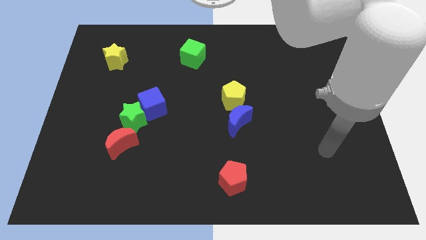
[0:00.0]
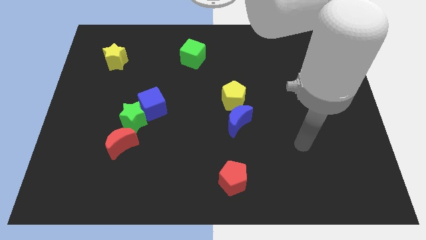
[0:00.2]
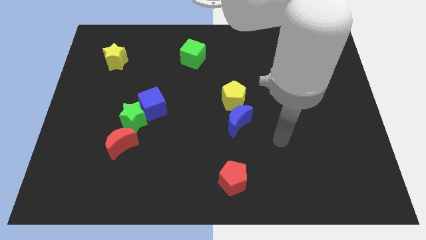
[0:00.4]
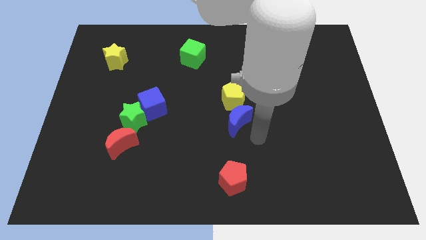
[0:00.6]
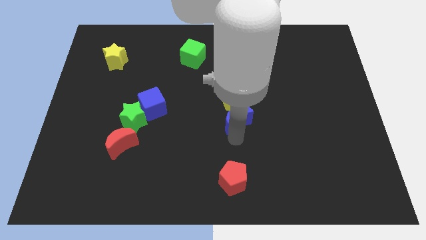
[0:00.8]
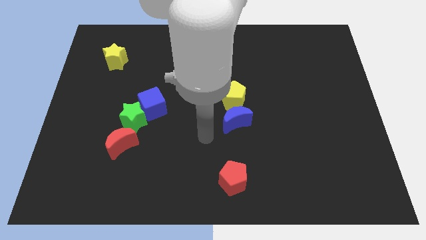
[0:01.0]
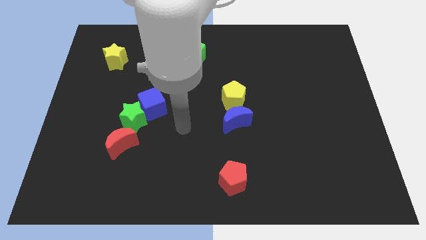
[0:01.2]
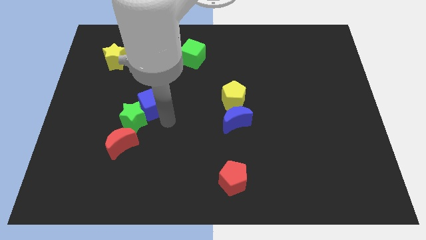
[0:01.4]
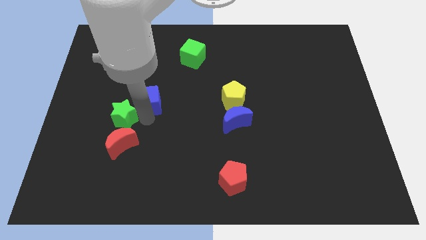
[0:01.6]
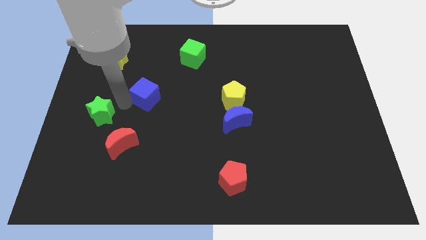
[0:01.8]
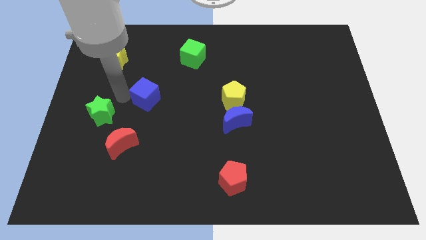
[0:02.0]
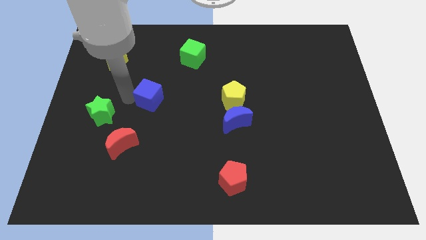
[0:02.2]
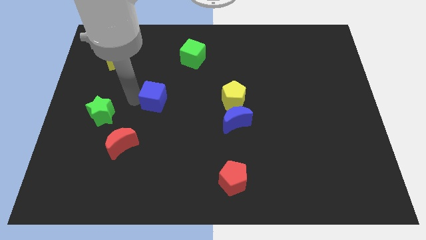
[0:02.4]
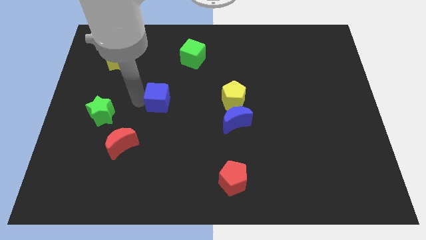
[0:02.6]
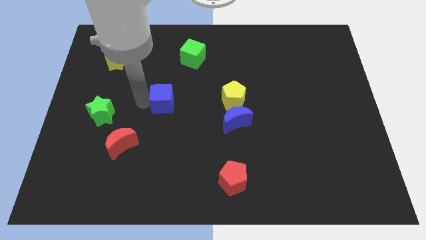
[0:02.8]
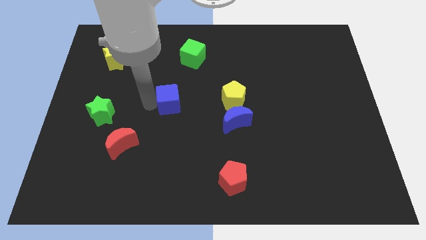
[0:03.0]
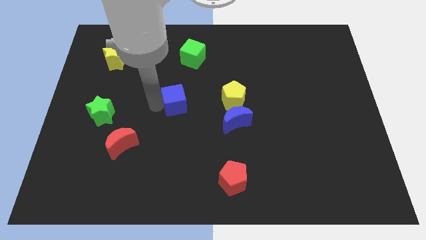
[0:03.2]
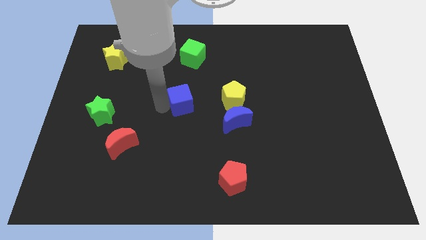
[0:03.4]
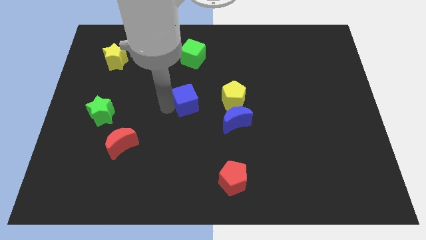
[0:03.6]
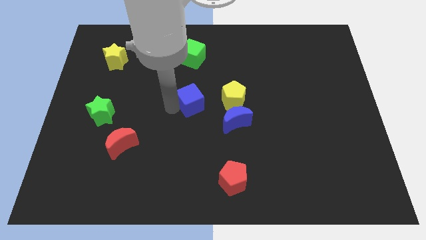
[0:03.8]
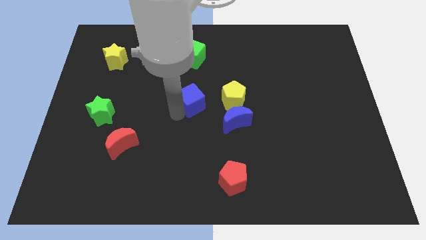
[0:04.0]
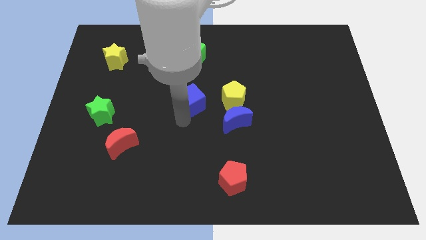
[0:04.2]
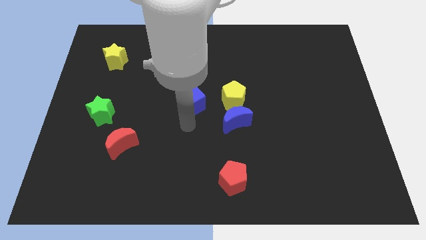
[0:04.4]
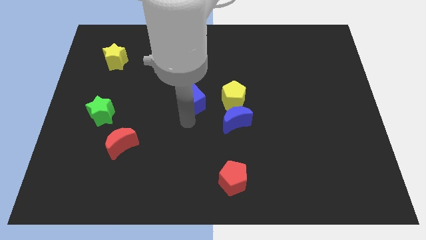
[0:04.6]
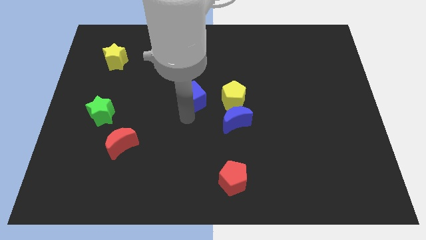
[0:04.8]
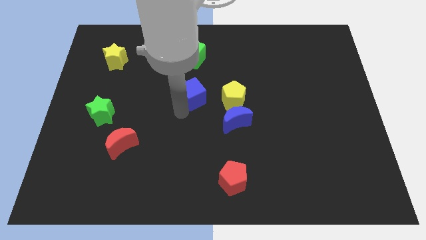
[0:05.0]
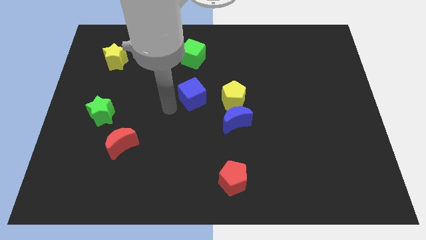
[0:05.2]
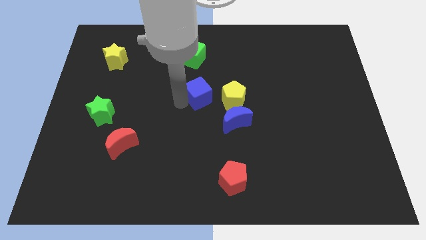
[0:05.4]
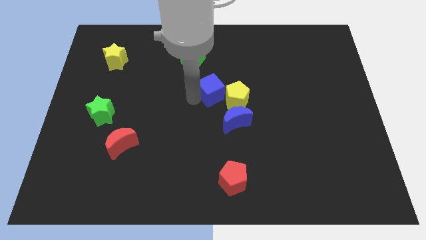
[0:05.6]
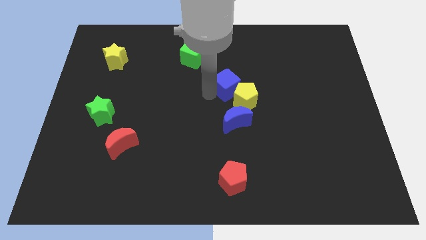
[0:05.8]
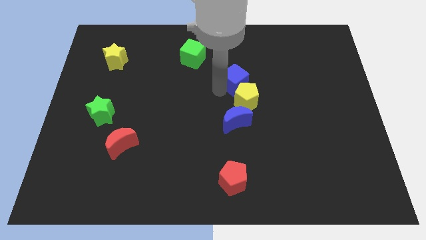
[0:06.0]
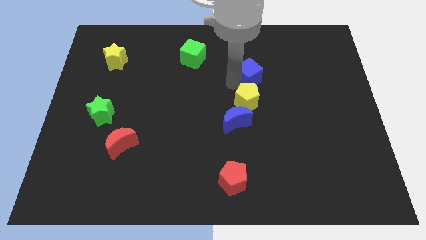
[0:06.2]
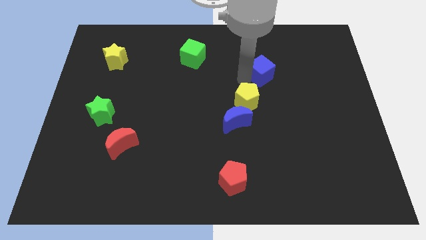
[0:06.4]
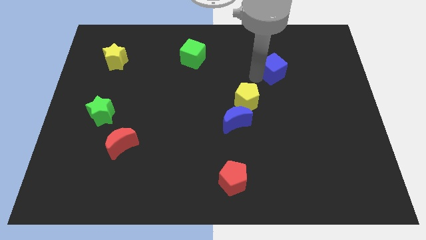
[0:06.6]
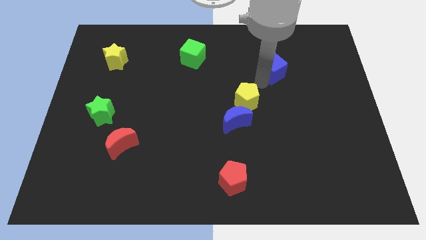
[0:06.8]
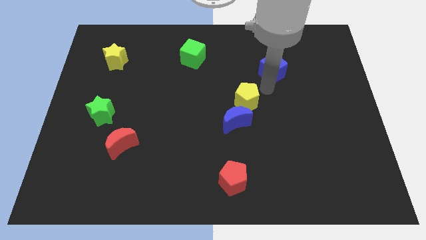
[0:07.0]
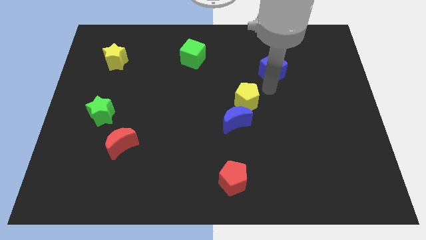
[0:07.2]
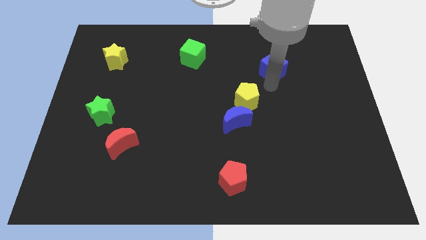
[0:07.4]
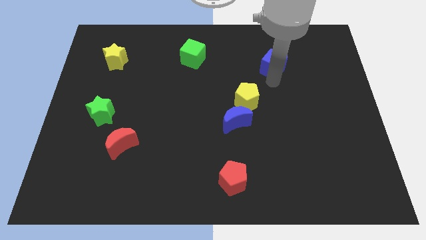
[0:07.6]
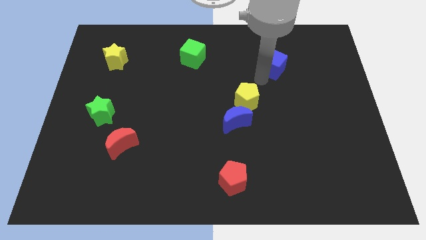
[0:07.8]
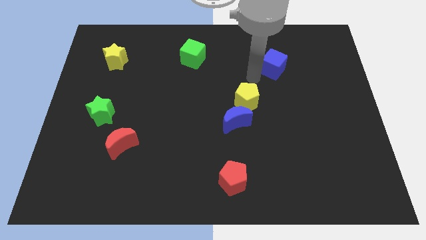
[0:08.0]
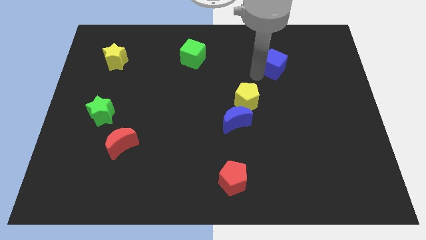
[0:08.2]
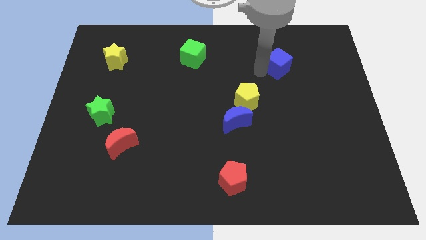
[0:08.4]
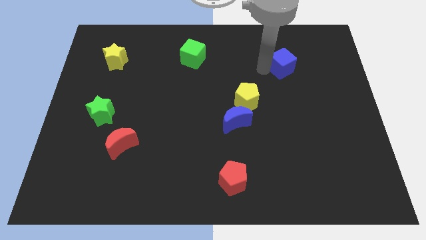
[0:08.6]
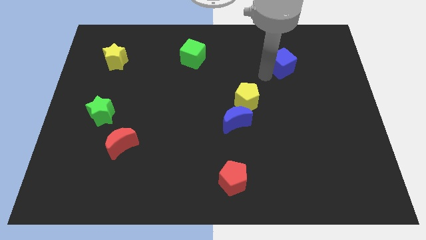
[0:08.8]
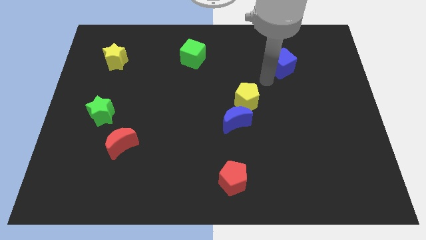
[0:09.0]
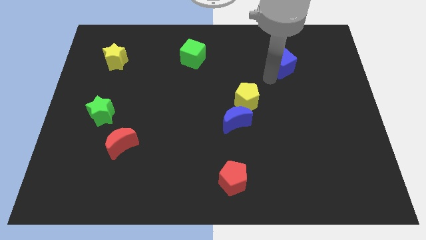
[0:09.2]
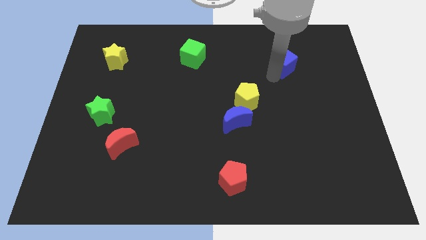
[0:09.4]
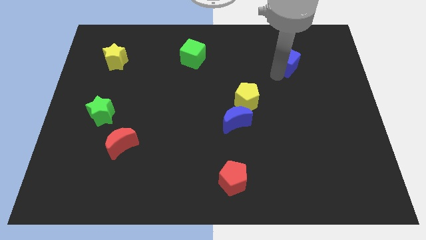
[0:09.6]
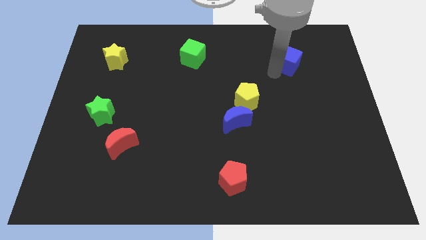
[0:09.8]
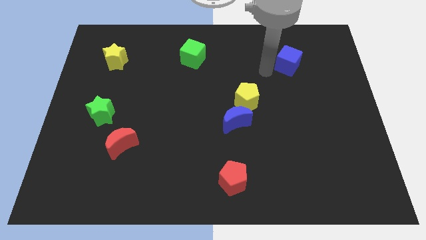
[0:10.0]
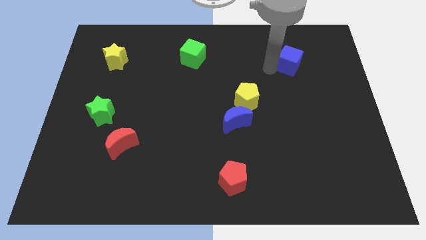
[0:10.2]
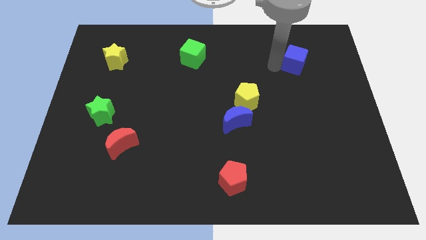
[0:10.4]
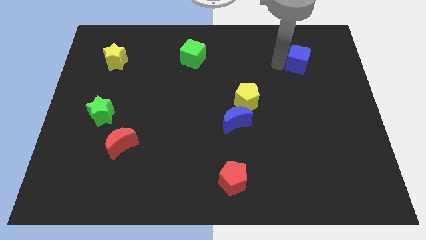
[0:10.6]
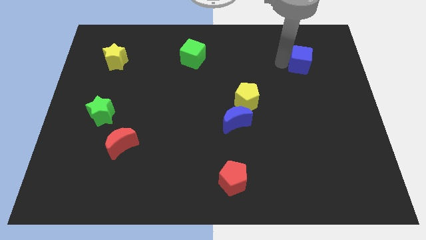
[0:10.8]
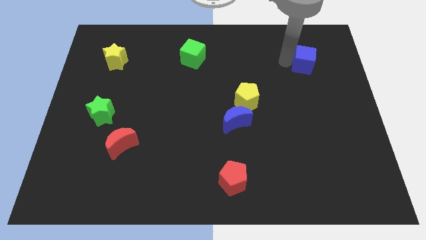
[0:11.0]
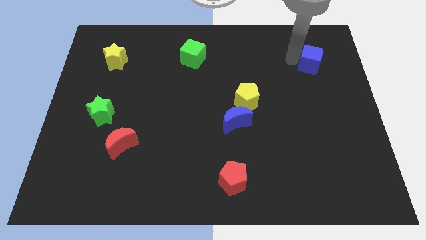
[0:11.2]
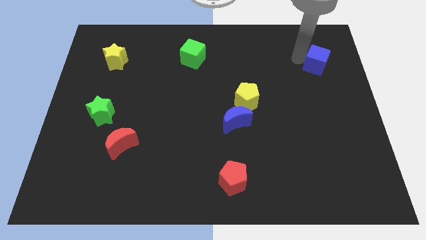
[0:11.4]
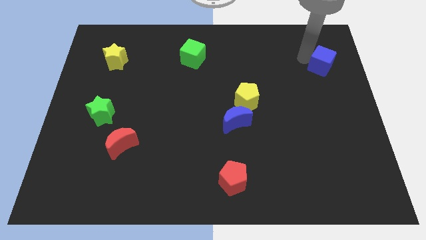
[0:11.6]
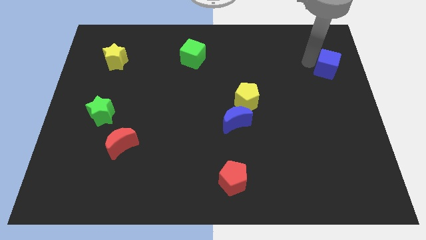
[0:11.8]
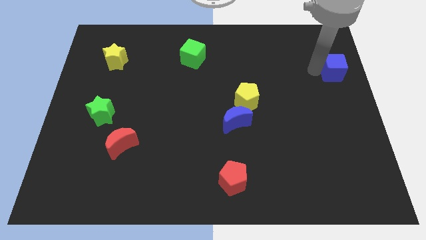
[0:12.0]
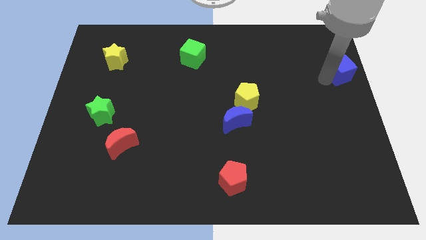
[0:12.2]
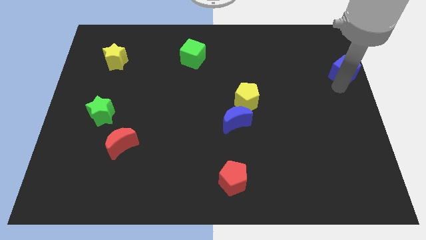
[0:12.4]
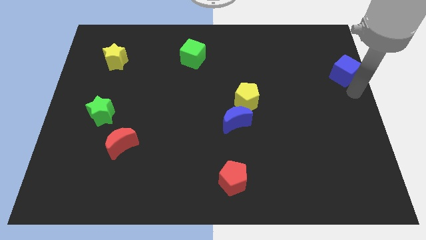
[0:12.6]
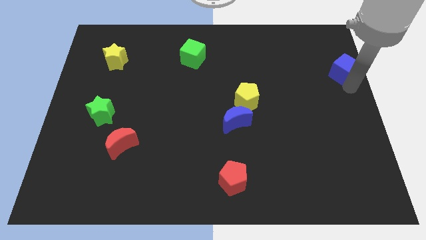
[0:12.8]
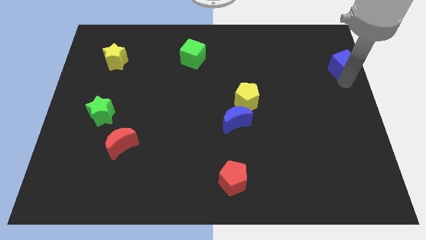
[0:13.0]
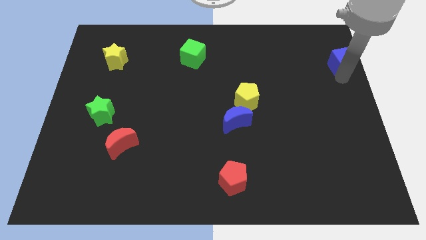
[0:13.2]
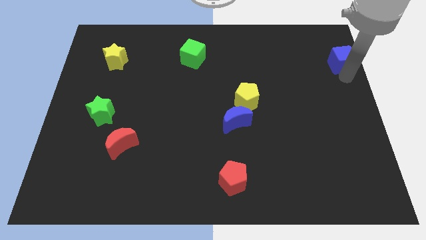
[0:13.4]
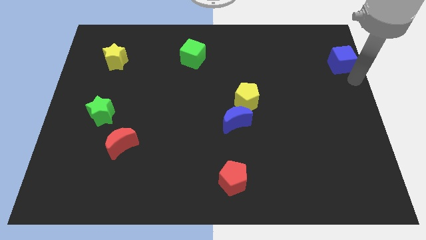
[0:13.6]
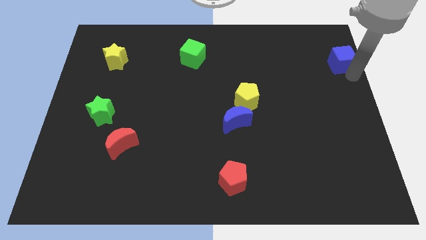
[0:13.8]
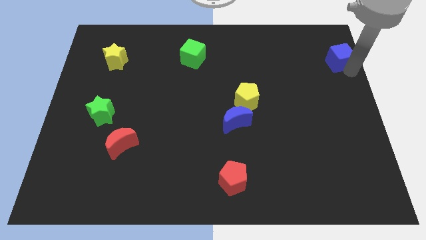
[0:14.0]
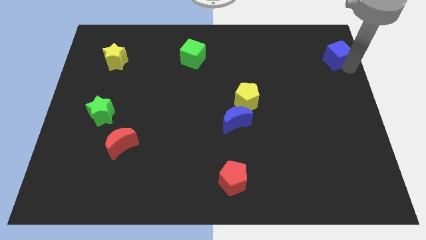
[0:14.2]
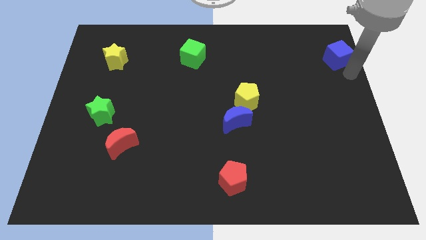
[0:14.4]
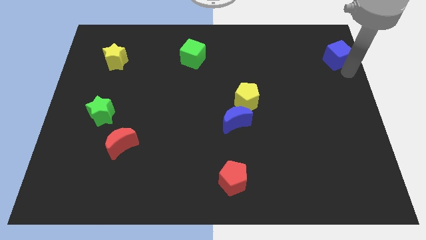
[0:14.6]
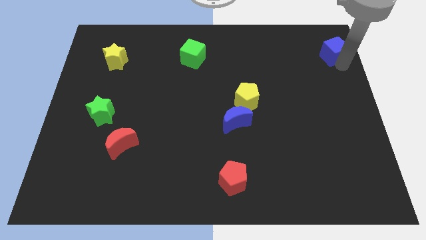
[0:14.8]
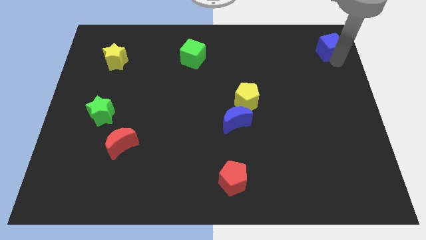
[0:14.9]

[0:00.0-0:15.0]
put the blue cube to the upper right corner
